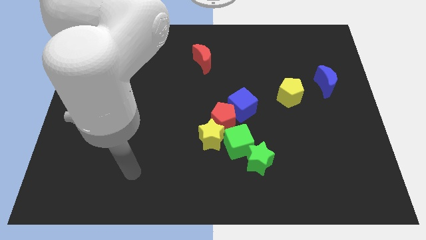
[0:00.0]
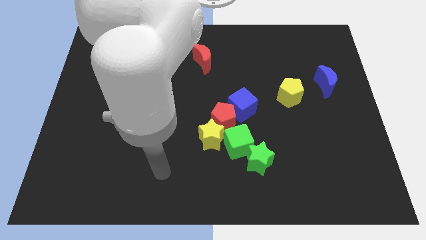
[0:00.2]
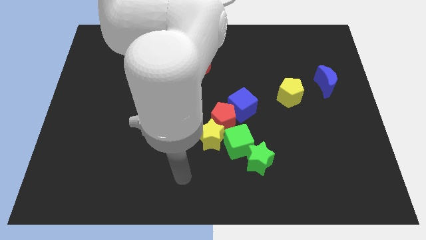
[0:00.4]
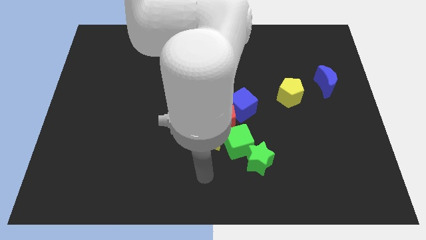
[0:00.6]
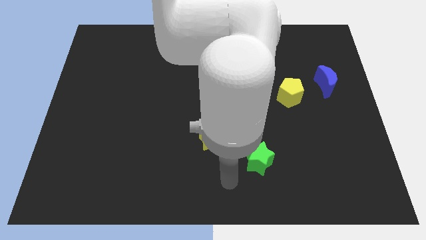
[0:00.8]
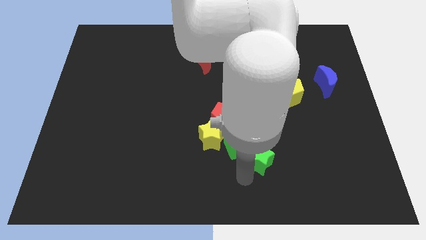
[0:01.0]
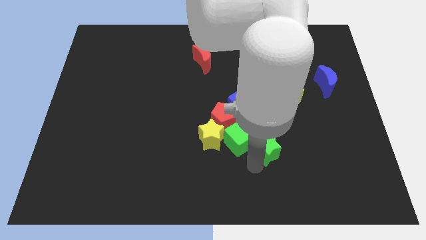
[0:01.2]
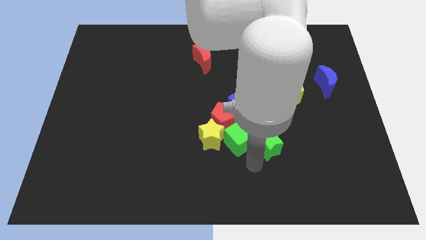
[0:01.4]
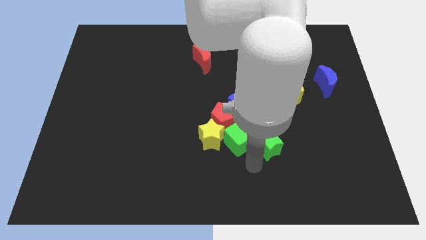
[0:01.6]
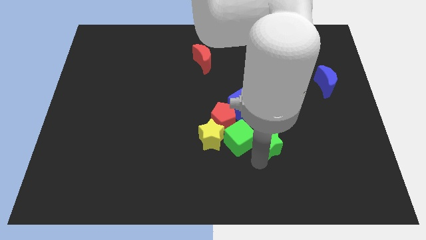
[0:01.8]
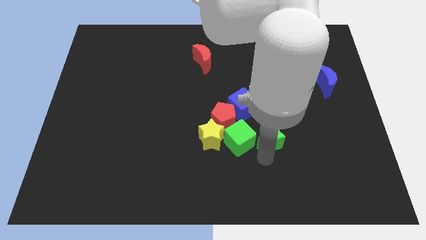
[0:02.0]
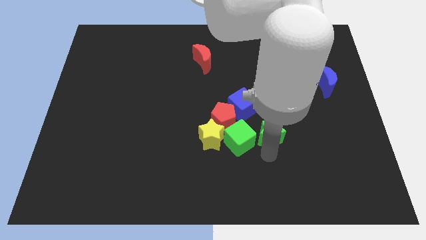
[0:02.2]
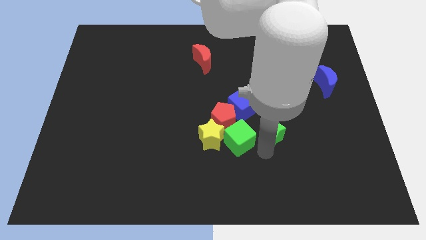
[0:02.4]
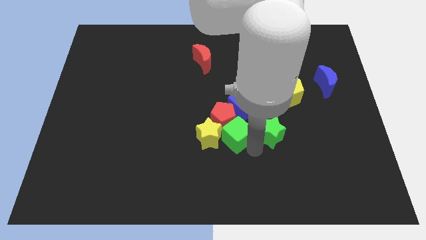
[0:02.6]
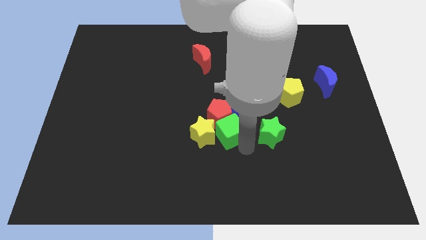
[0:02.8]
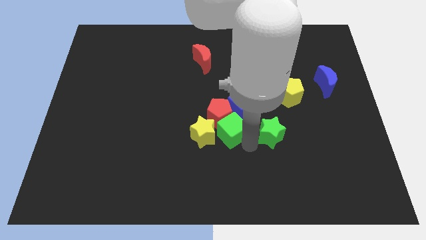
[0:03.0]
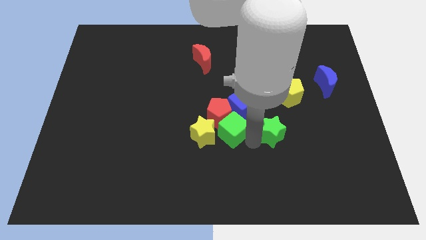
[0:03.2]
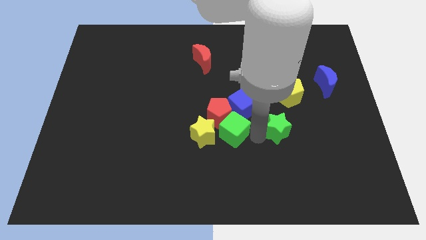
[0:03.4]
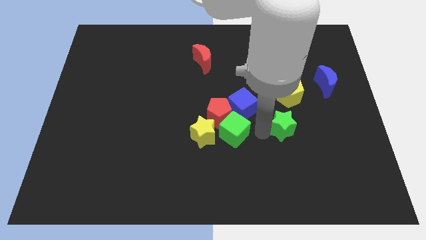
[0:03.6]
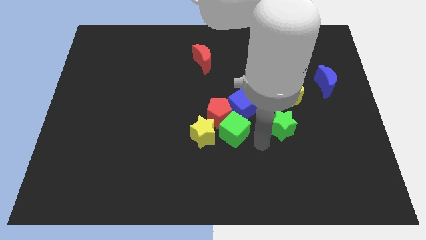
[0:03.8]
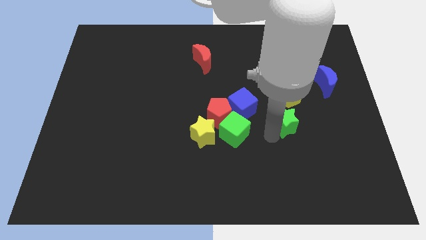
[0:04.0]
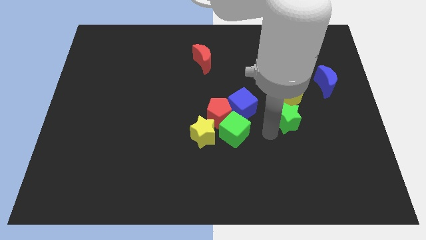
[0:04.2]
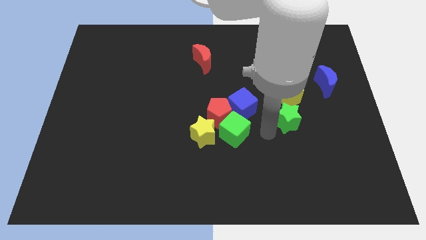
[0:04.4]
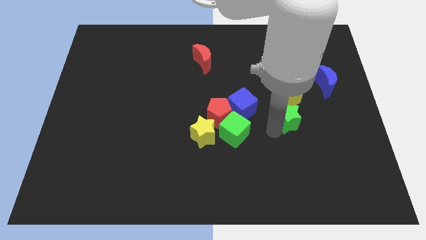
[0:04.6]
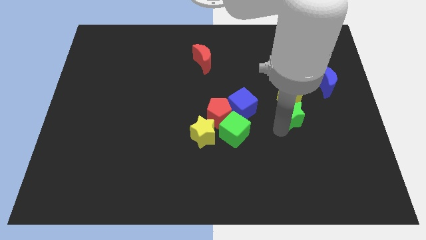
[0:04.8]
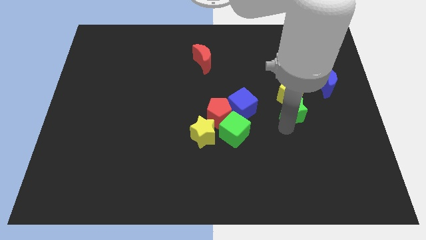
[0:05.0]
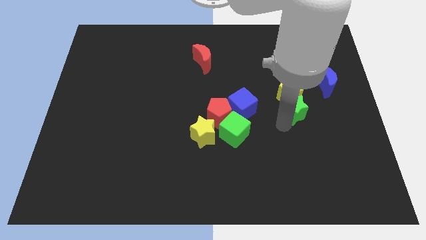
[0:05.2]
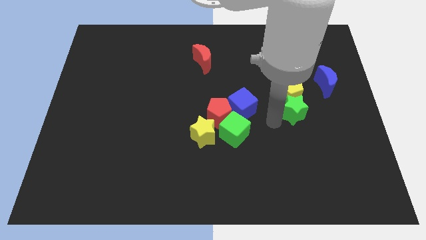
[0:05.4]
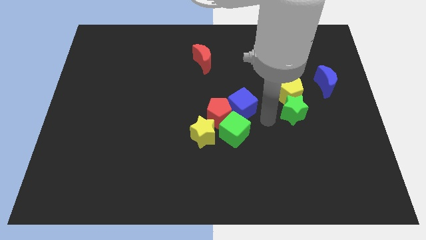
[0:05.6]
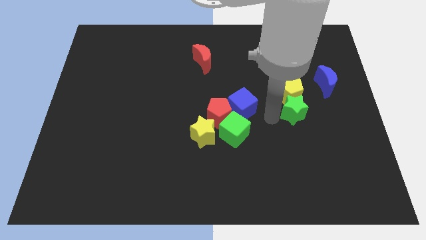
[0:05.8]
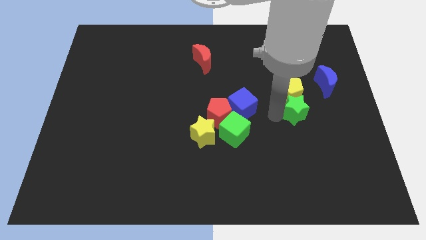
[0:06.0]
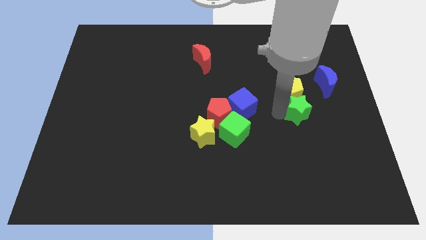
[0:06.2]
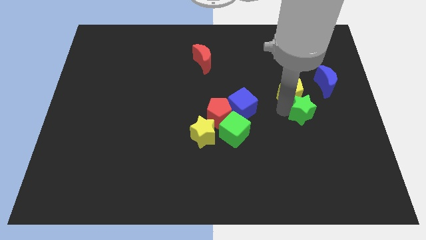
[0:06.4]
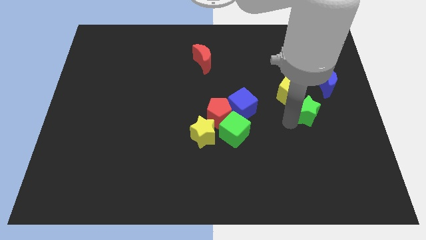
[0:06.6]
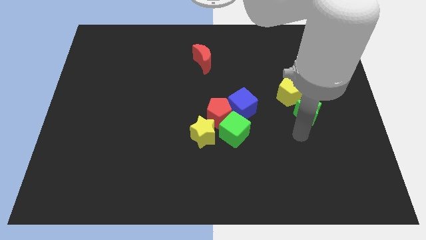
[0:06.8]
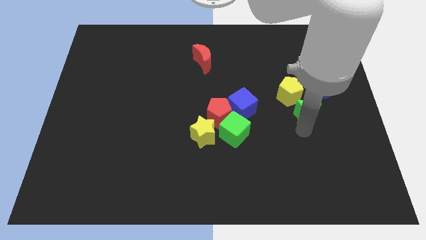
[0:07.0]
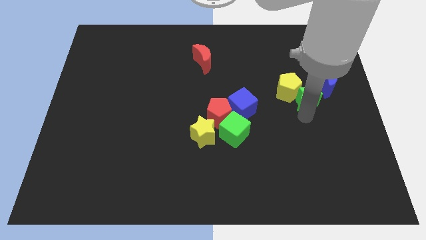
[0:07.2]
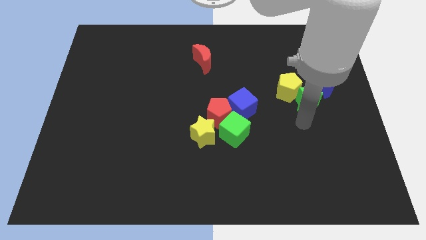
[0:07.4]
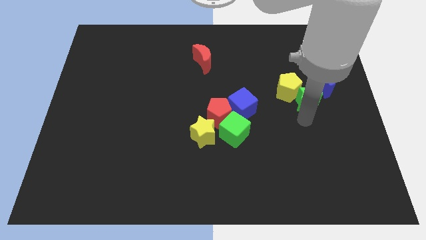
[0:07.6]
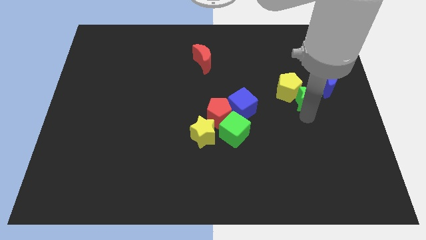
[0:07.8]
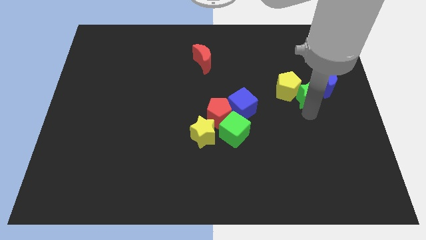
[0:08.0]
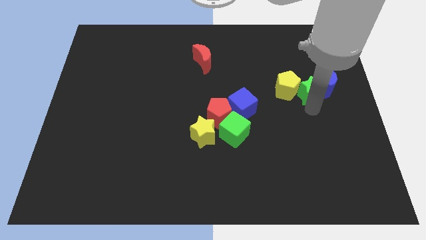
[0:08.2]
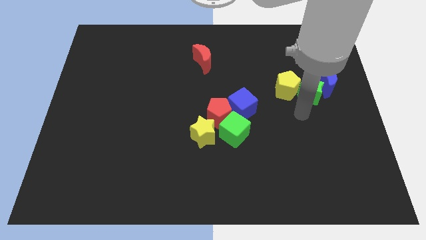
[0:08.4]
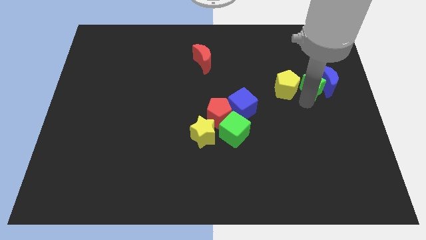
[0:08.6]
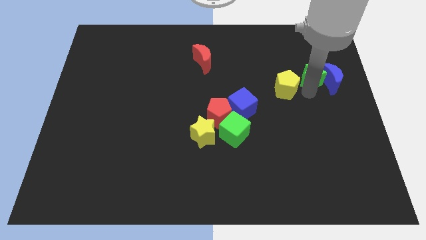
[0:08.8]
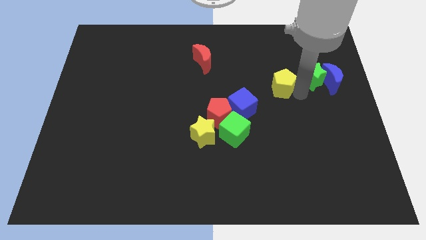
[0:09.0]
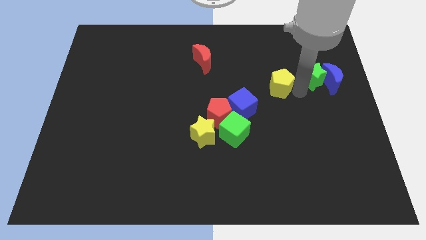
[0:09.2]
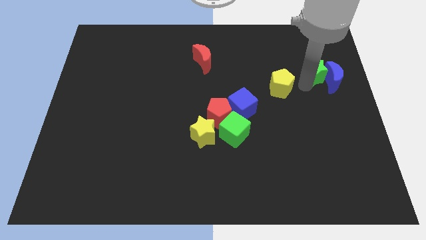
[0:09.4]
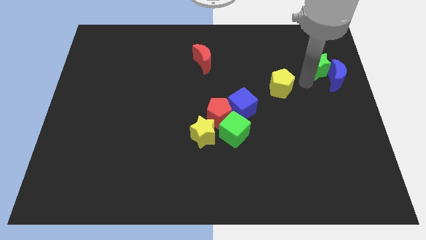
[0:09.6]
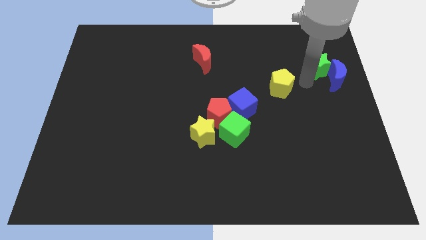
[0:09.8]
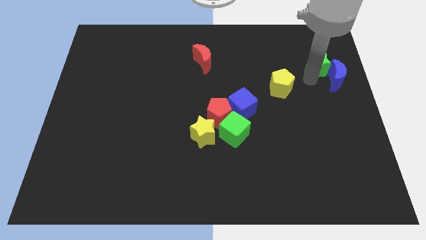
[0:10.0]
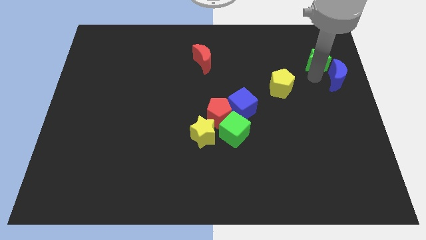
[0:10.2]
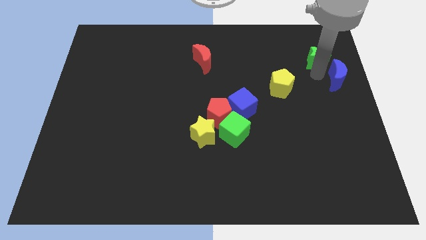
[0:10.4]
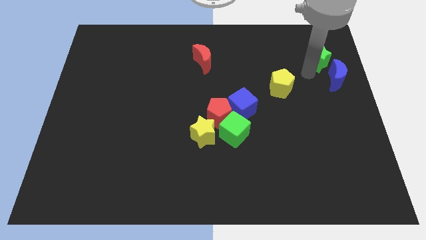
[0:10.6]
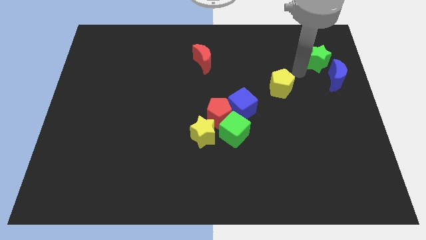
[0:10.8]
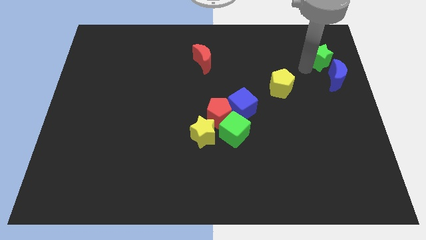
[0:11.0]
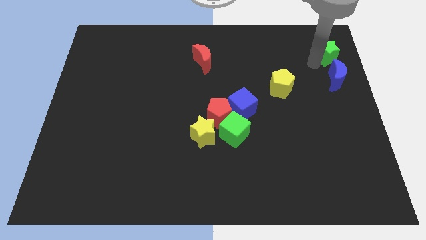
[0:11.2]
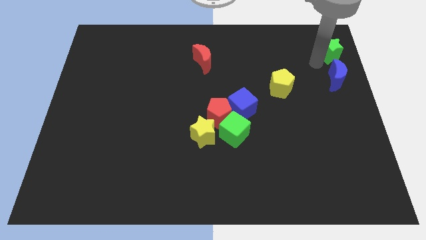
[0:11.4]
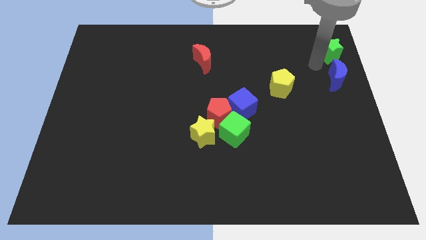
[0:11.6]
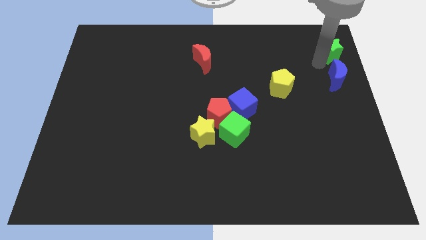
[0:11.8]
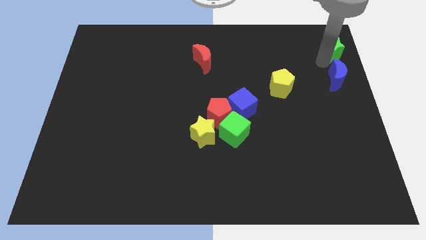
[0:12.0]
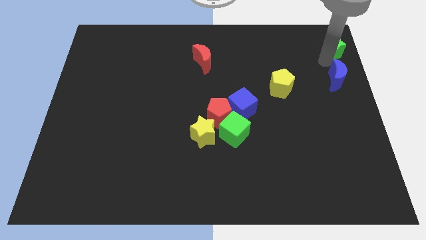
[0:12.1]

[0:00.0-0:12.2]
slide the green star to the top right corner

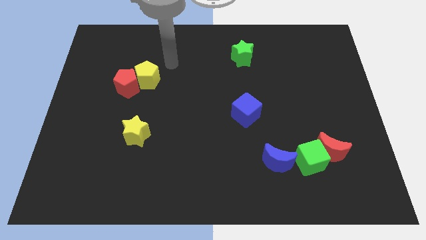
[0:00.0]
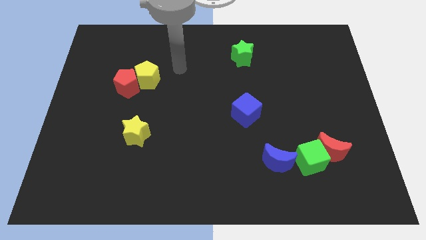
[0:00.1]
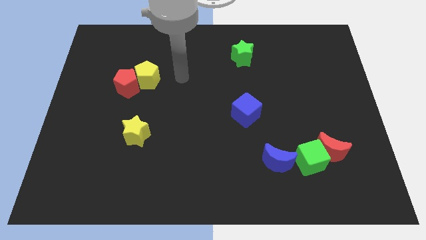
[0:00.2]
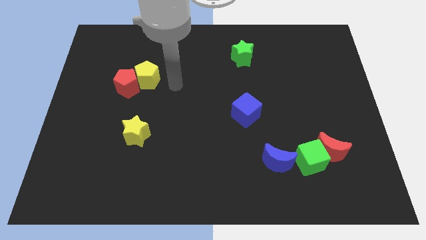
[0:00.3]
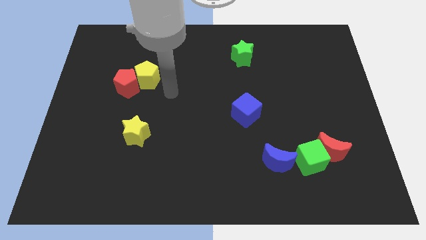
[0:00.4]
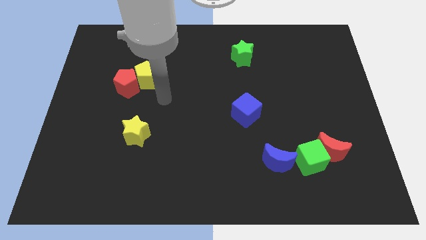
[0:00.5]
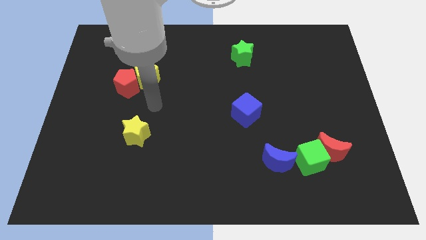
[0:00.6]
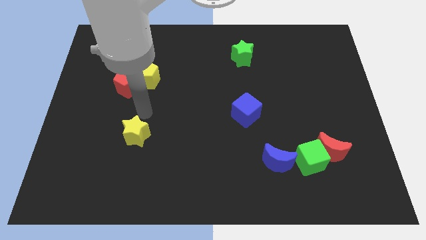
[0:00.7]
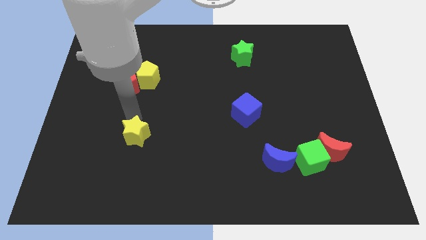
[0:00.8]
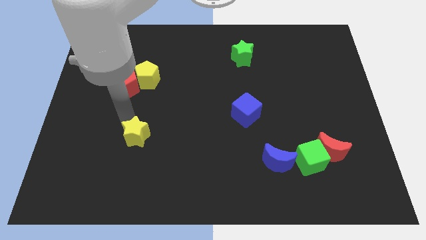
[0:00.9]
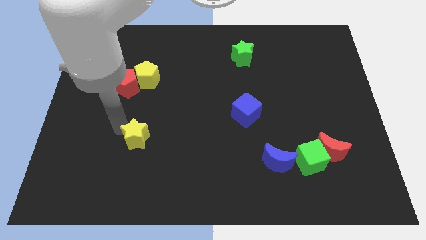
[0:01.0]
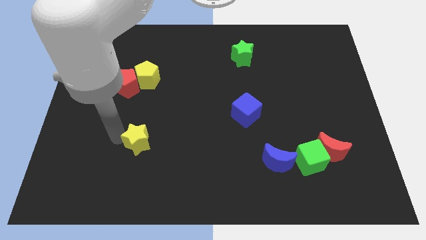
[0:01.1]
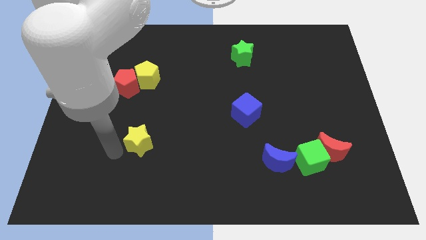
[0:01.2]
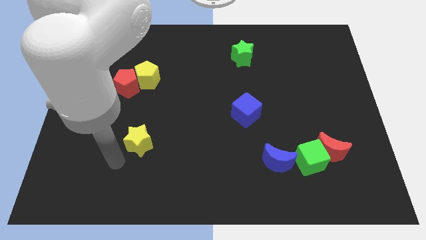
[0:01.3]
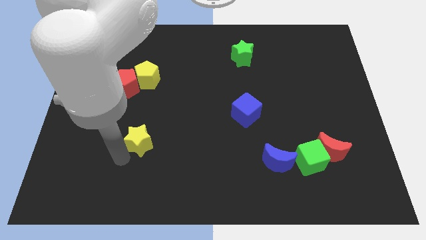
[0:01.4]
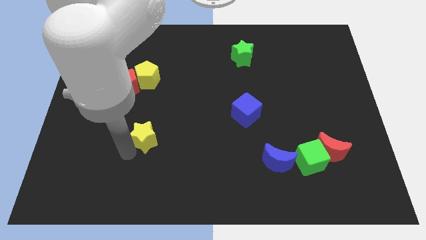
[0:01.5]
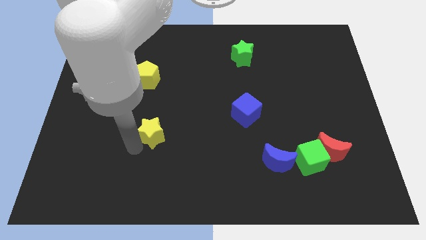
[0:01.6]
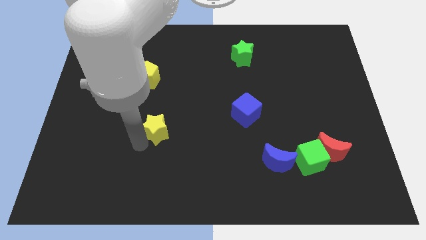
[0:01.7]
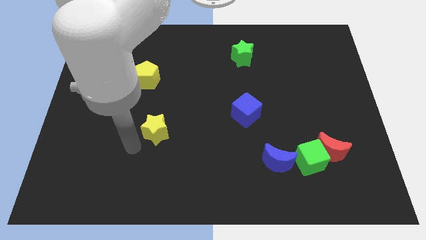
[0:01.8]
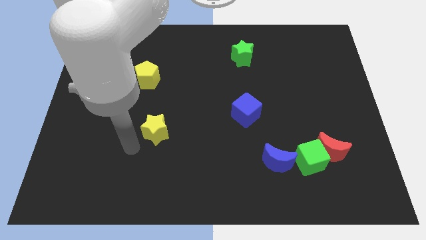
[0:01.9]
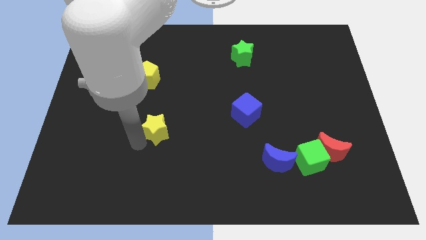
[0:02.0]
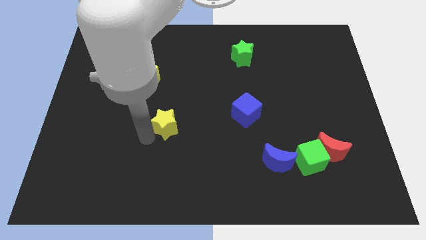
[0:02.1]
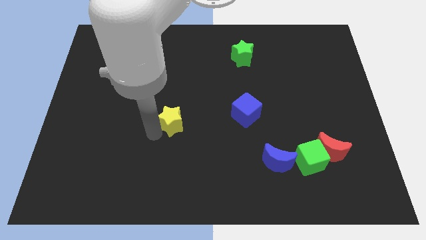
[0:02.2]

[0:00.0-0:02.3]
move the yellow star to the middle
